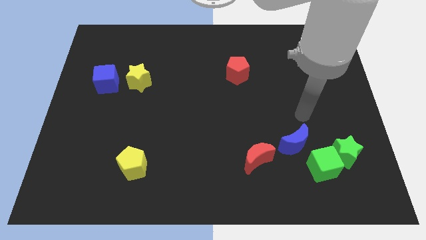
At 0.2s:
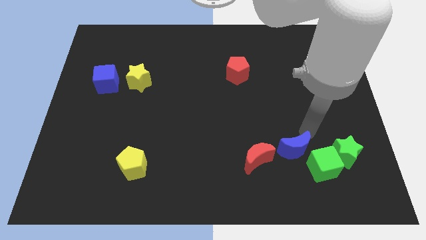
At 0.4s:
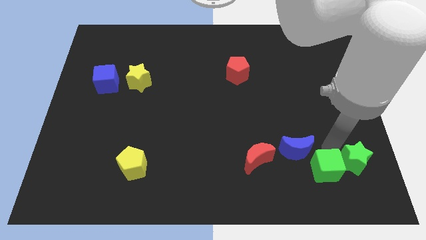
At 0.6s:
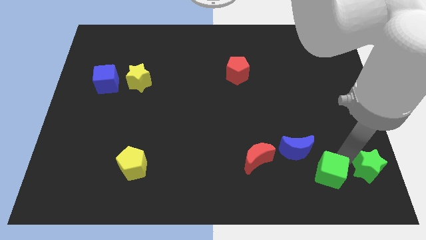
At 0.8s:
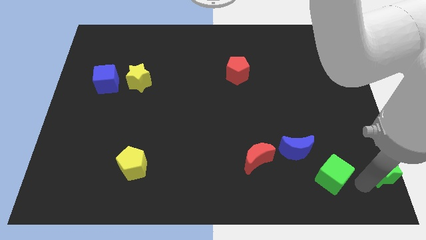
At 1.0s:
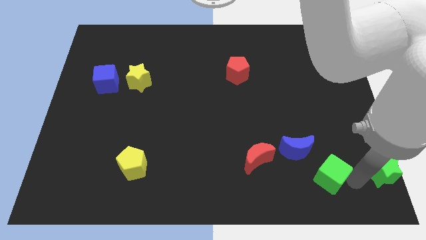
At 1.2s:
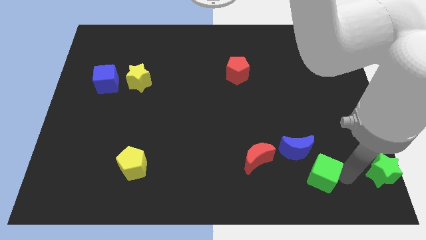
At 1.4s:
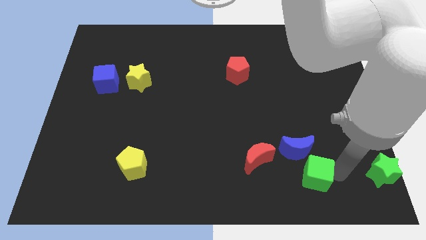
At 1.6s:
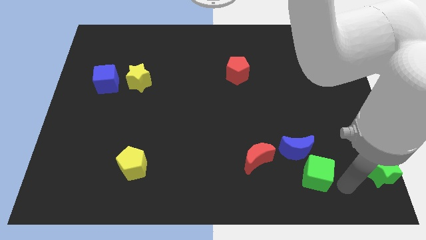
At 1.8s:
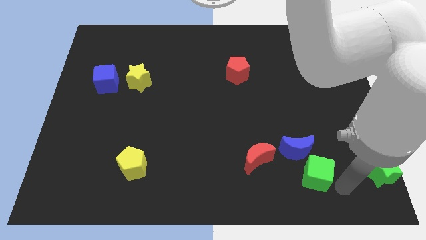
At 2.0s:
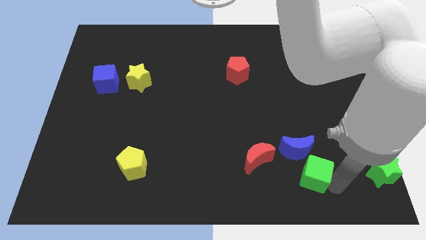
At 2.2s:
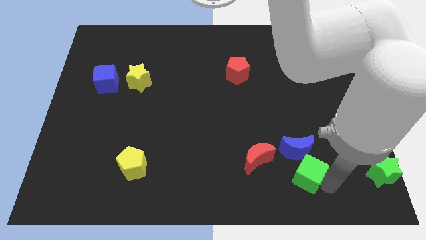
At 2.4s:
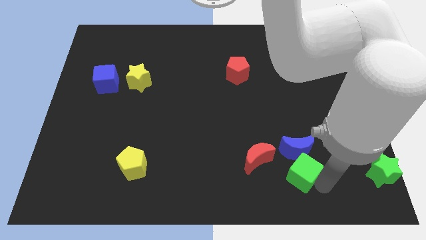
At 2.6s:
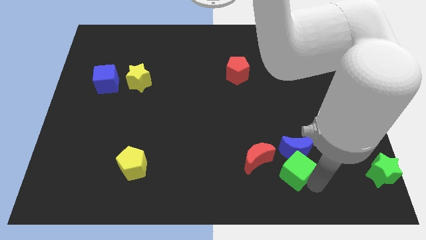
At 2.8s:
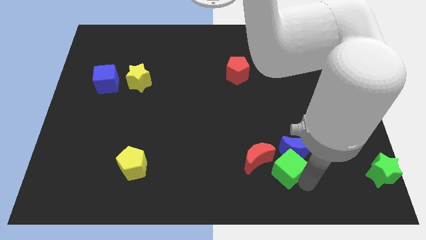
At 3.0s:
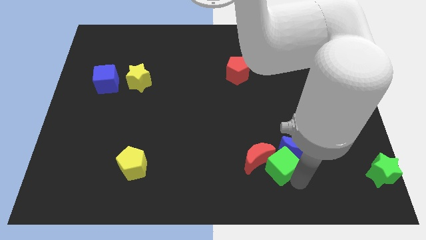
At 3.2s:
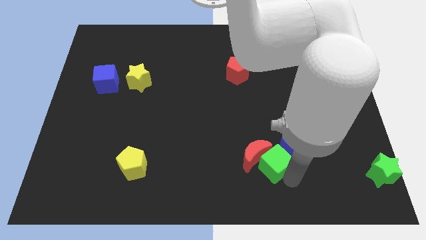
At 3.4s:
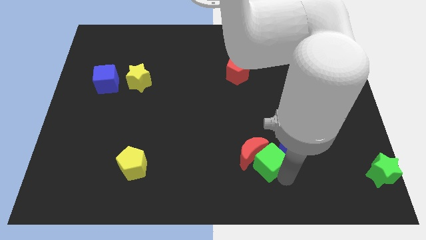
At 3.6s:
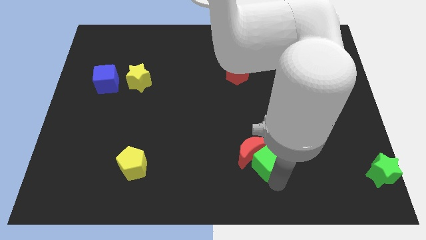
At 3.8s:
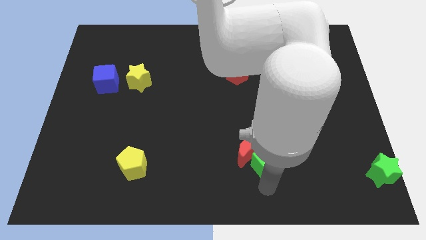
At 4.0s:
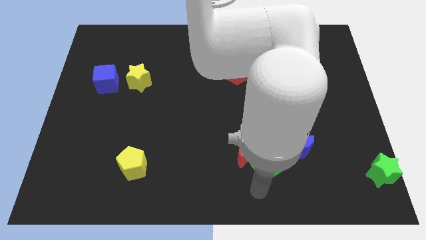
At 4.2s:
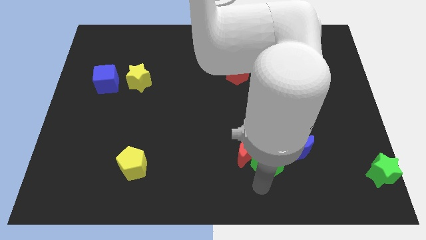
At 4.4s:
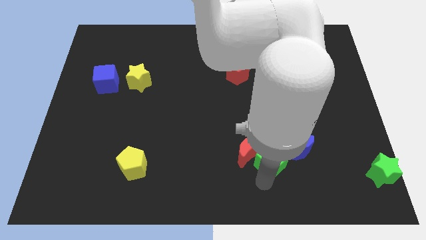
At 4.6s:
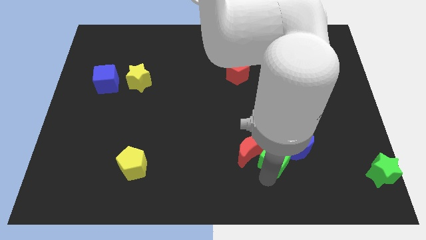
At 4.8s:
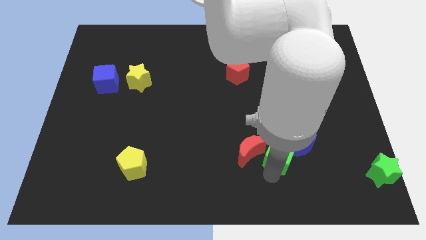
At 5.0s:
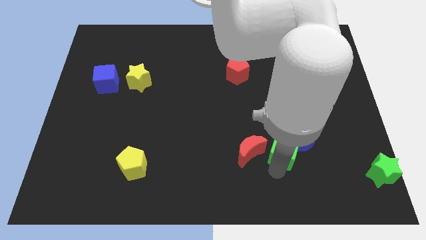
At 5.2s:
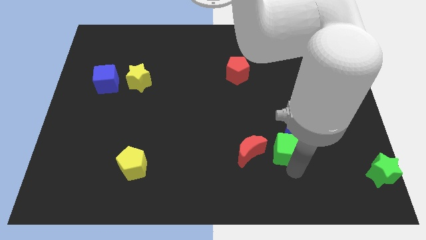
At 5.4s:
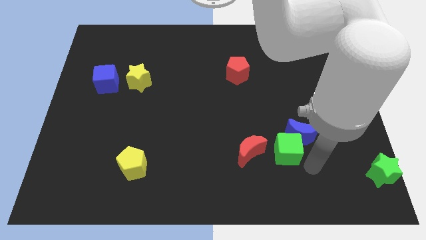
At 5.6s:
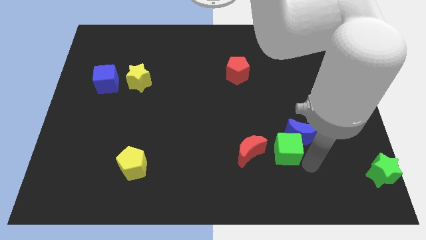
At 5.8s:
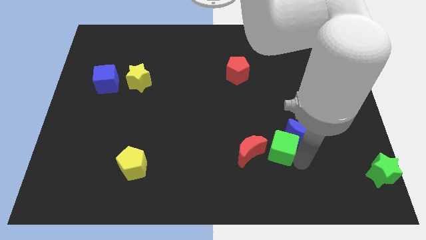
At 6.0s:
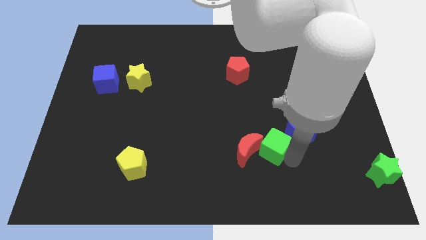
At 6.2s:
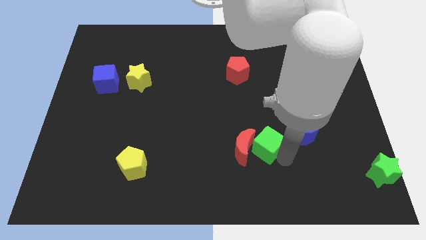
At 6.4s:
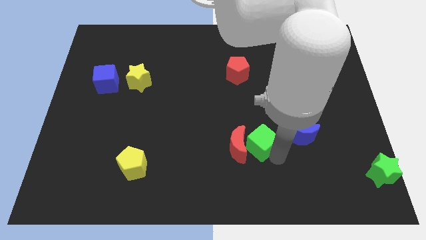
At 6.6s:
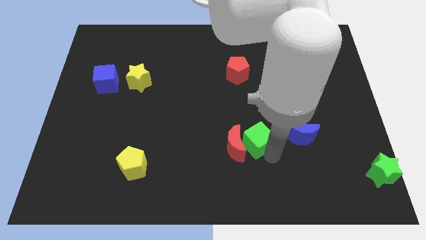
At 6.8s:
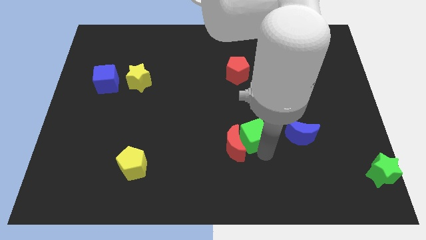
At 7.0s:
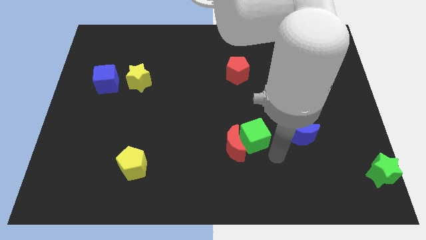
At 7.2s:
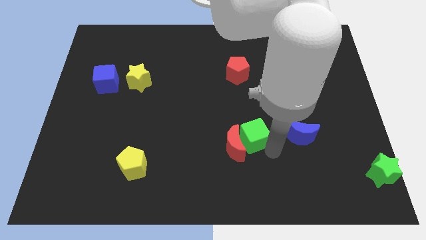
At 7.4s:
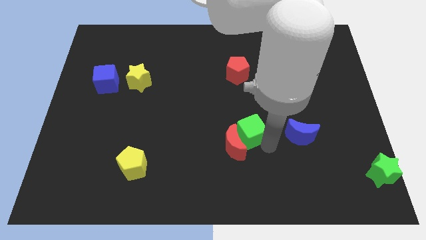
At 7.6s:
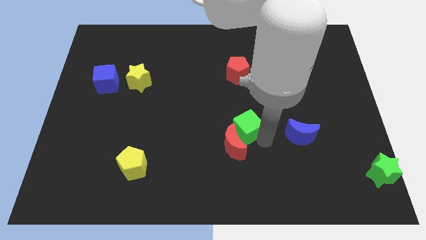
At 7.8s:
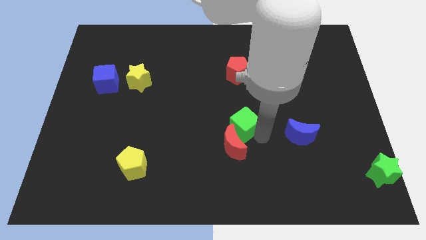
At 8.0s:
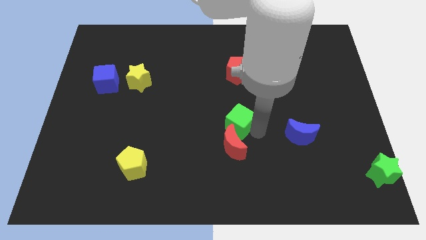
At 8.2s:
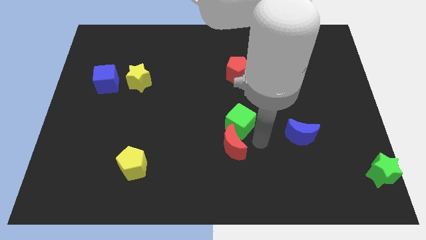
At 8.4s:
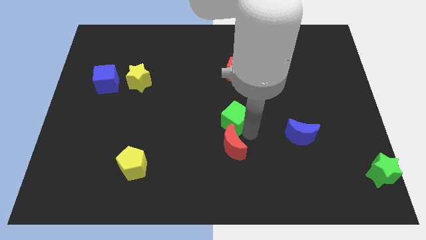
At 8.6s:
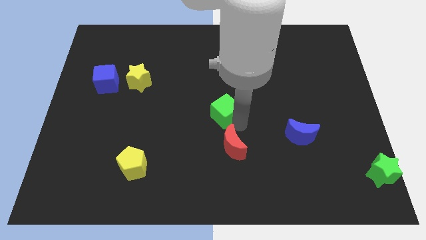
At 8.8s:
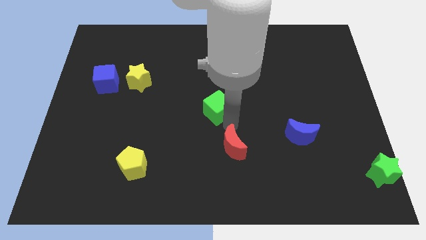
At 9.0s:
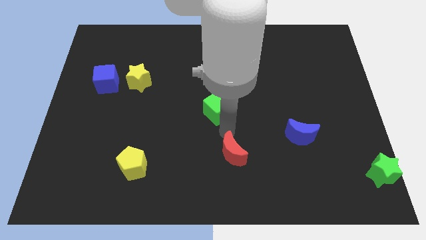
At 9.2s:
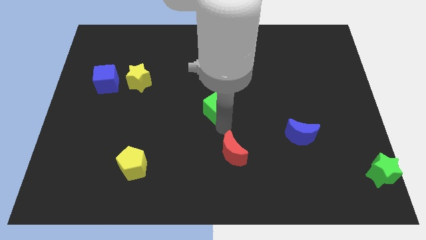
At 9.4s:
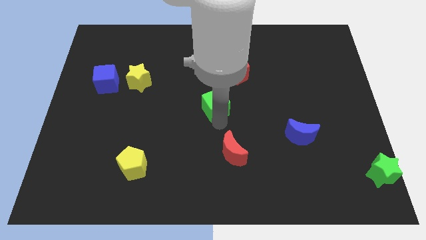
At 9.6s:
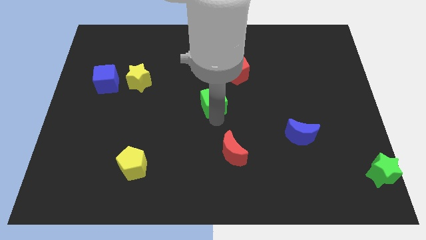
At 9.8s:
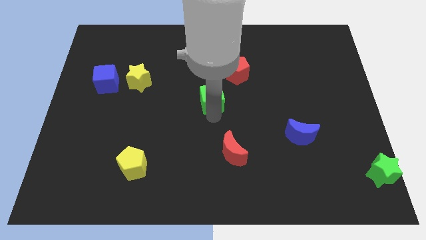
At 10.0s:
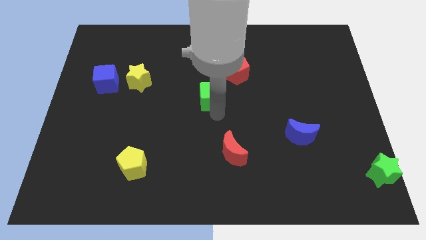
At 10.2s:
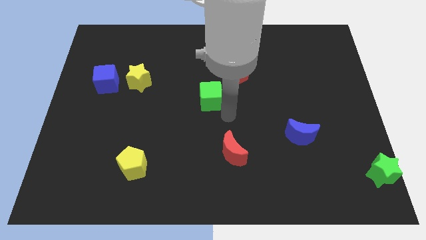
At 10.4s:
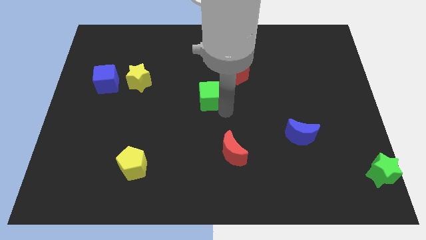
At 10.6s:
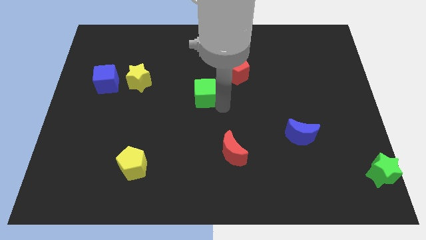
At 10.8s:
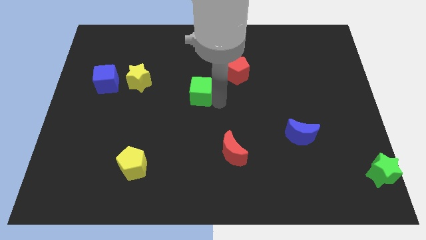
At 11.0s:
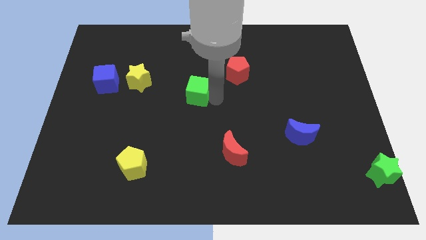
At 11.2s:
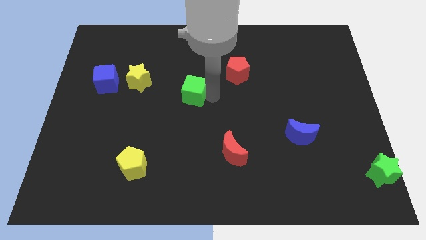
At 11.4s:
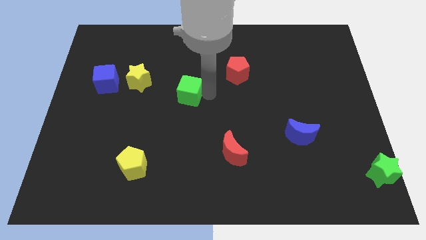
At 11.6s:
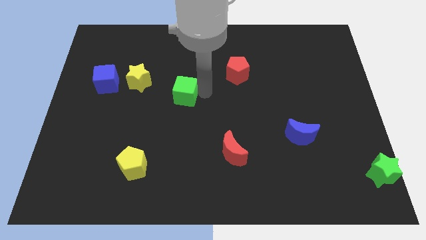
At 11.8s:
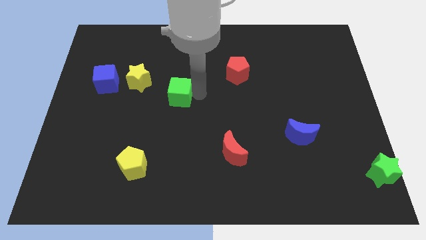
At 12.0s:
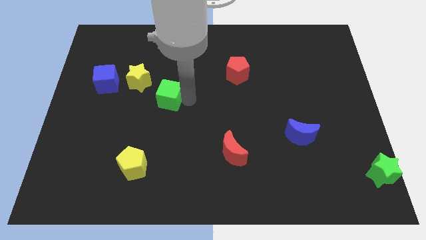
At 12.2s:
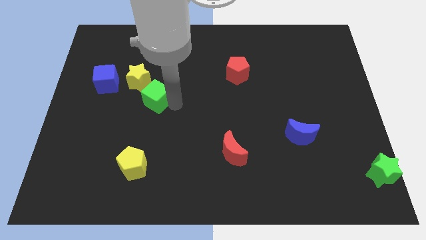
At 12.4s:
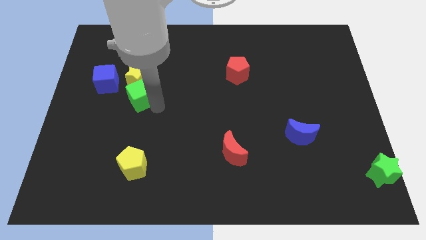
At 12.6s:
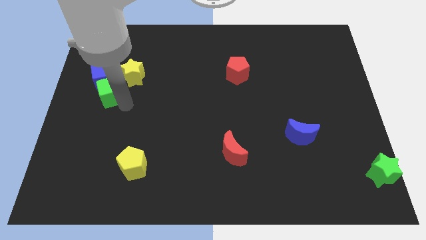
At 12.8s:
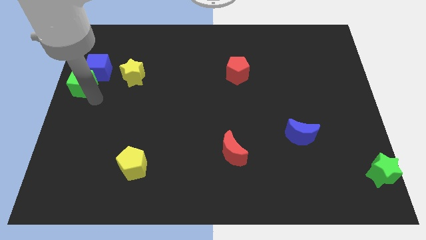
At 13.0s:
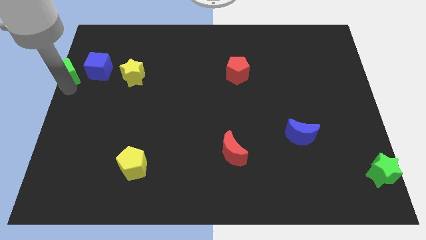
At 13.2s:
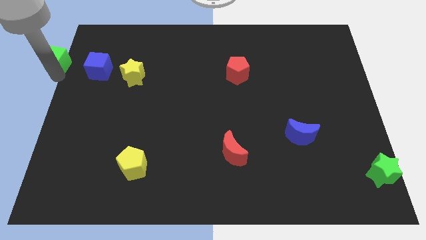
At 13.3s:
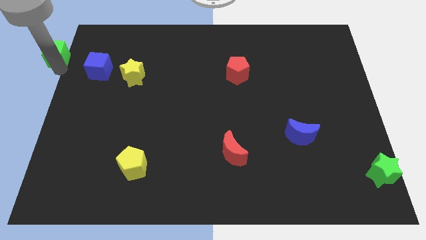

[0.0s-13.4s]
put the green cube to the top left

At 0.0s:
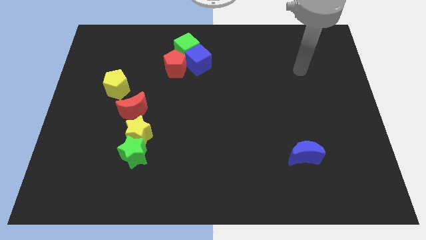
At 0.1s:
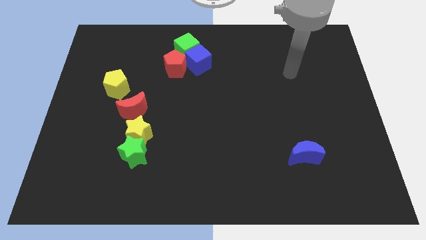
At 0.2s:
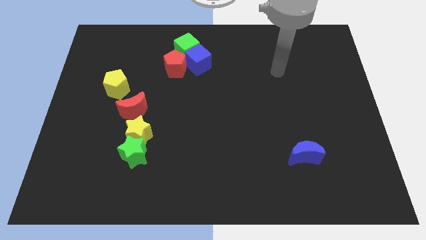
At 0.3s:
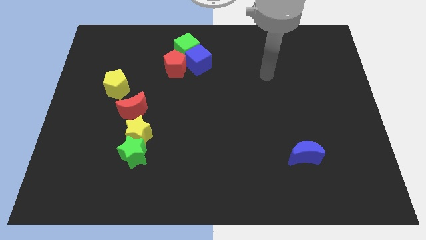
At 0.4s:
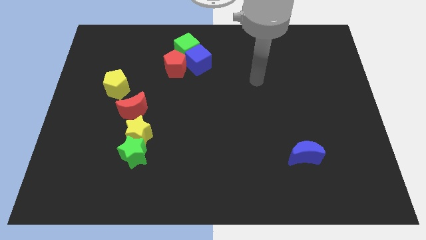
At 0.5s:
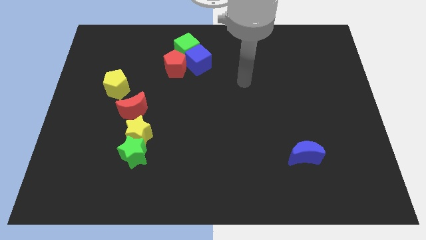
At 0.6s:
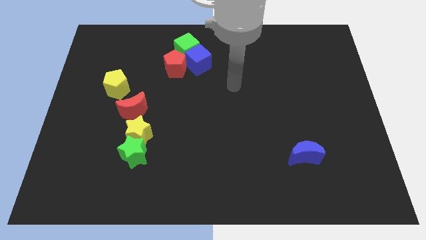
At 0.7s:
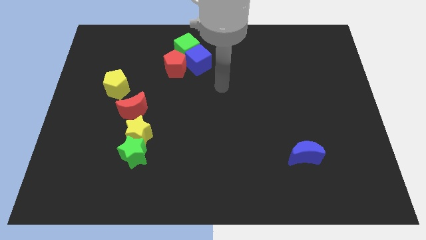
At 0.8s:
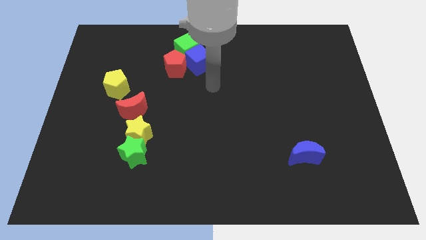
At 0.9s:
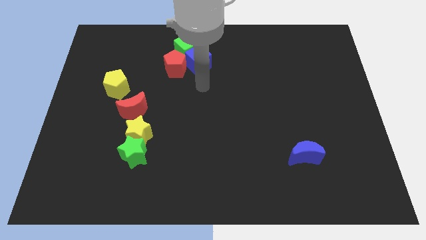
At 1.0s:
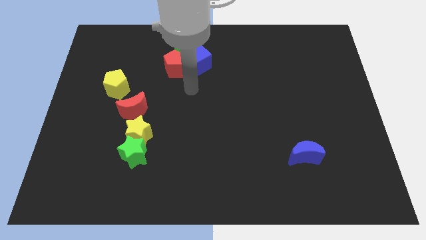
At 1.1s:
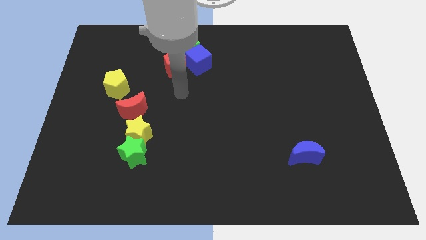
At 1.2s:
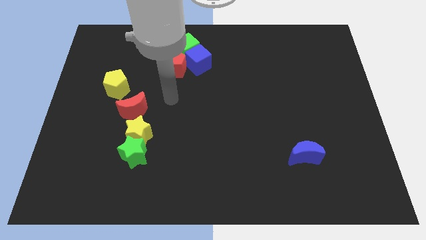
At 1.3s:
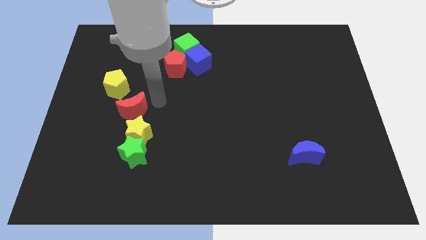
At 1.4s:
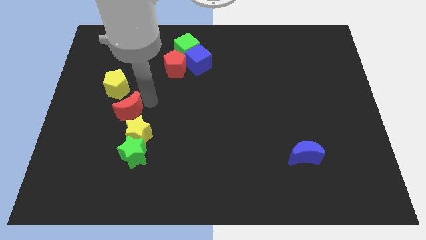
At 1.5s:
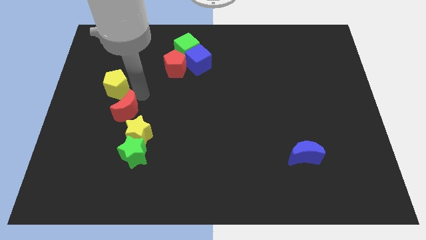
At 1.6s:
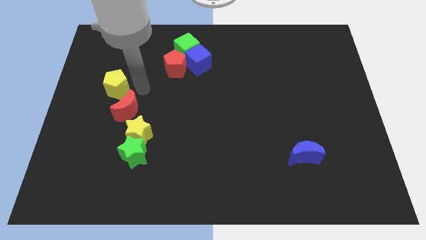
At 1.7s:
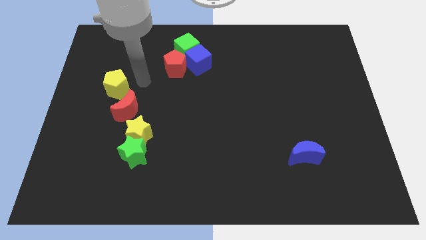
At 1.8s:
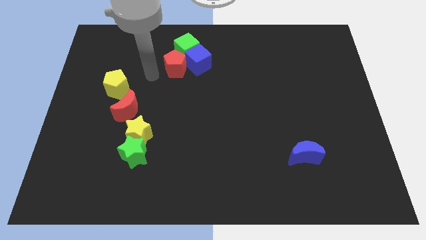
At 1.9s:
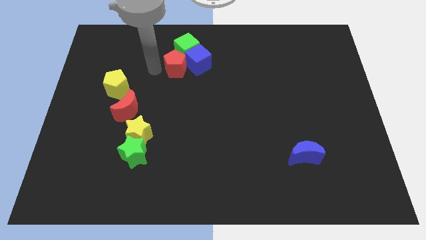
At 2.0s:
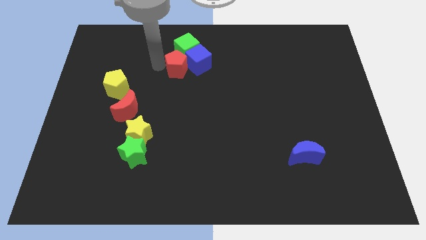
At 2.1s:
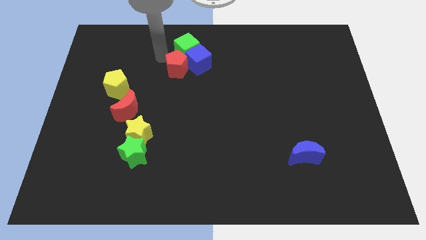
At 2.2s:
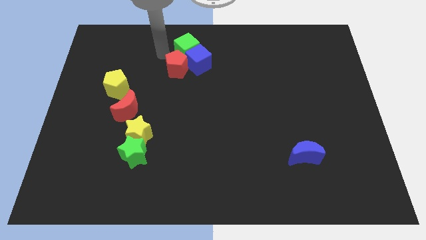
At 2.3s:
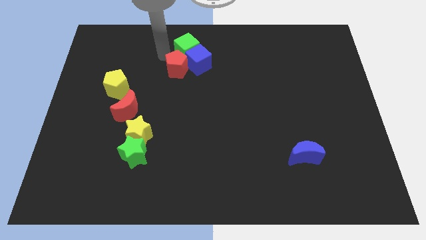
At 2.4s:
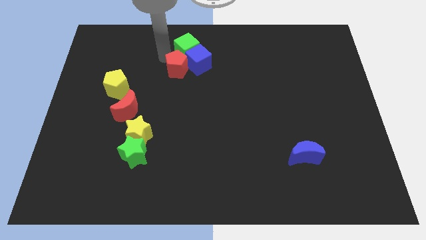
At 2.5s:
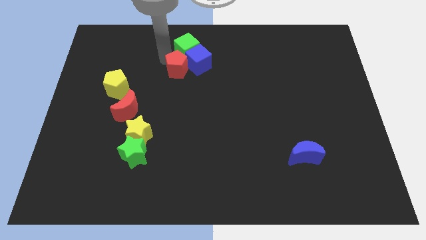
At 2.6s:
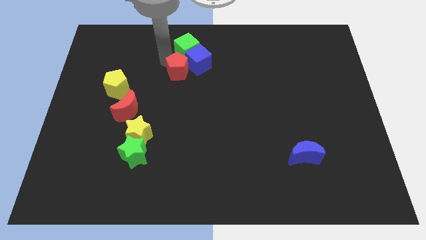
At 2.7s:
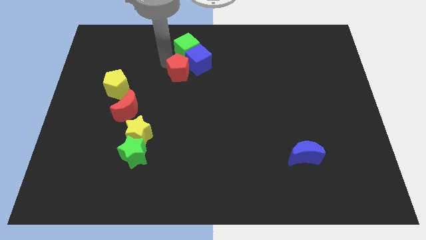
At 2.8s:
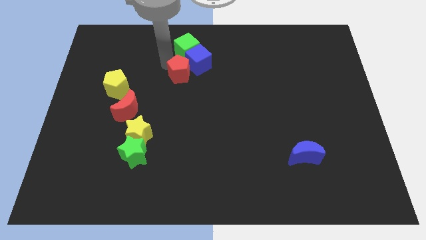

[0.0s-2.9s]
put the red pentagon to the center
